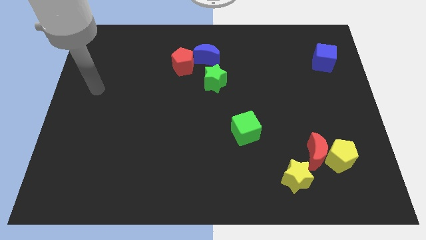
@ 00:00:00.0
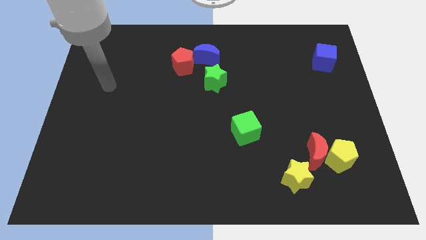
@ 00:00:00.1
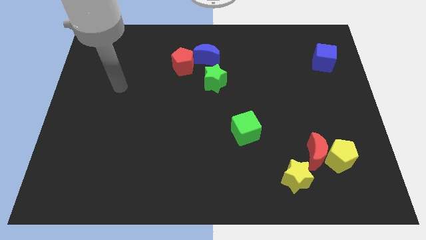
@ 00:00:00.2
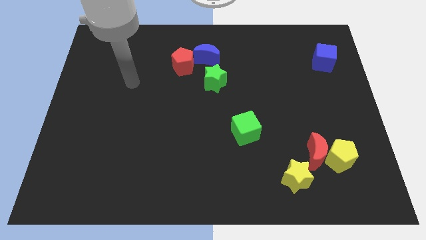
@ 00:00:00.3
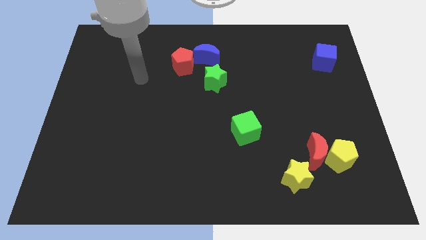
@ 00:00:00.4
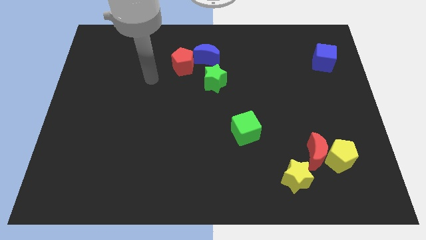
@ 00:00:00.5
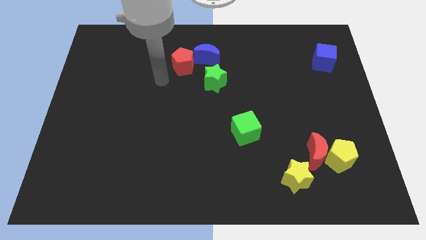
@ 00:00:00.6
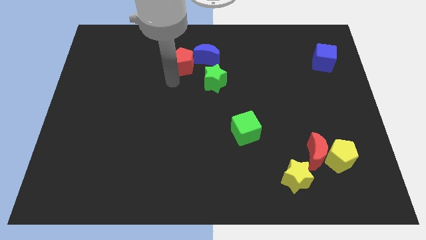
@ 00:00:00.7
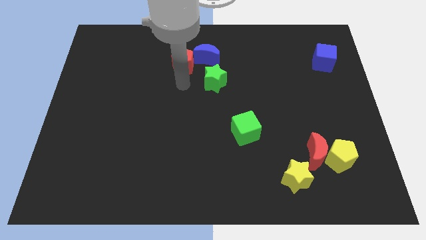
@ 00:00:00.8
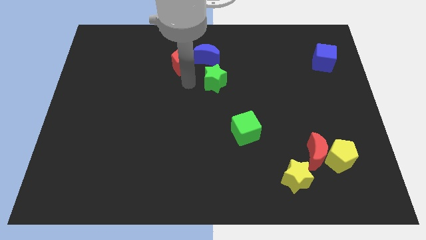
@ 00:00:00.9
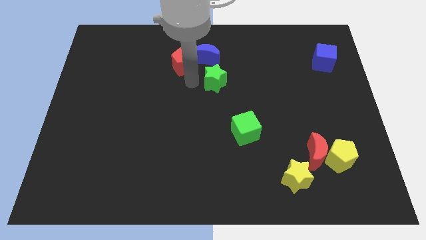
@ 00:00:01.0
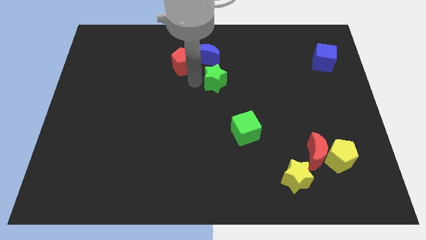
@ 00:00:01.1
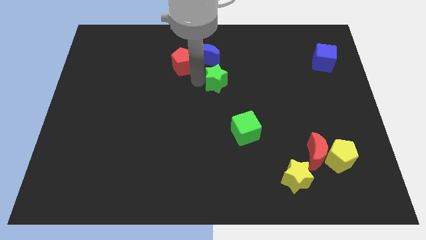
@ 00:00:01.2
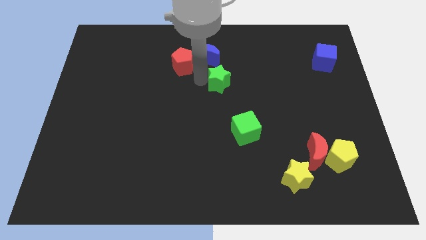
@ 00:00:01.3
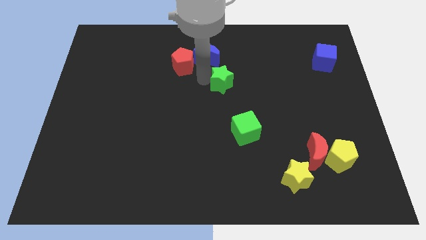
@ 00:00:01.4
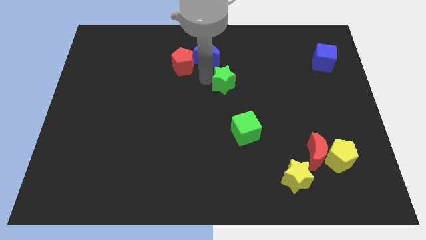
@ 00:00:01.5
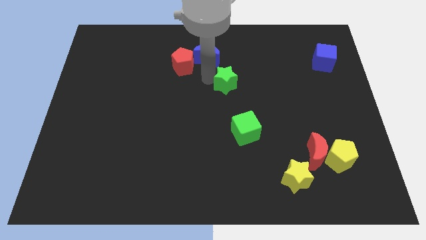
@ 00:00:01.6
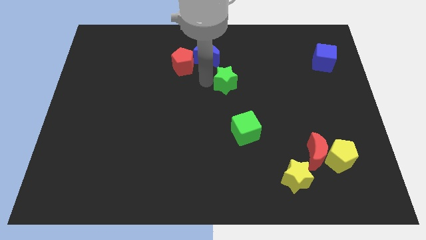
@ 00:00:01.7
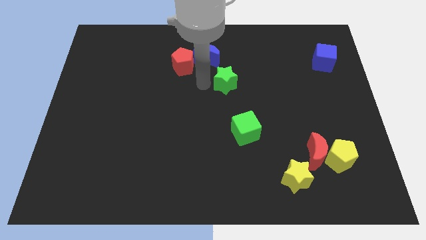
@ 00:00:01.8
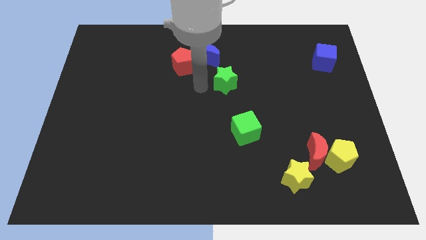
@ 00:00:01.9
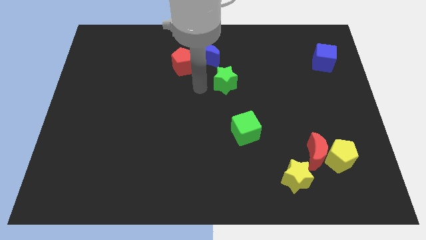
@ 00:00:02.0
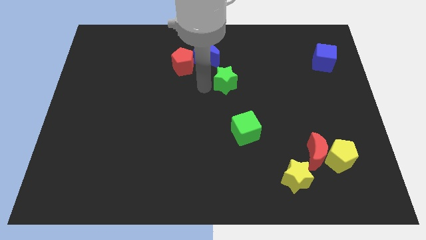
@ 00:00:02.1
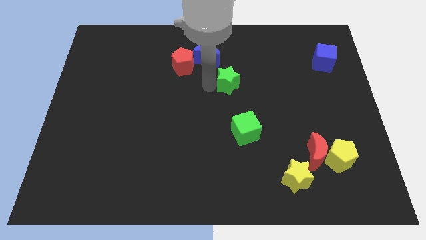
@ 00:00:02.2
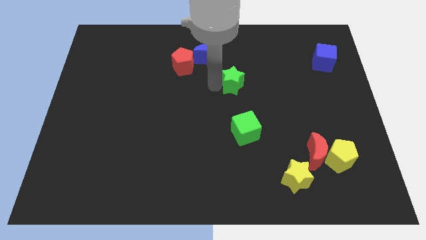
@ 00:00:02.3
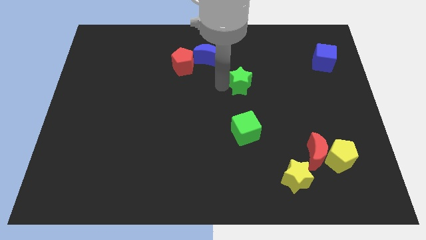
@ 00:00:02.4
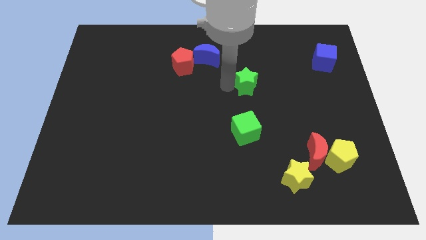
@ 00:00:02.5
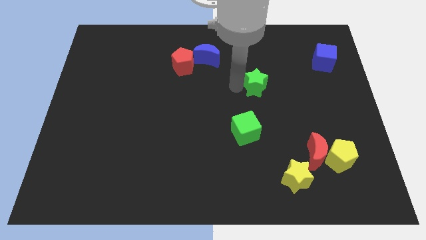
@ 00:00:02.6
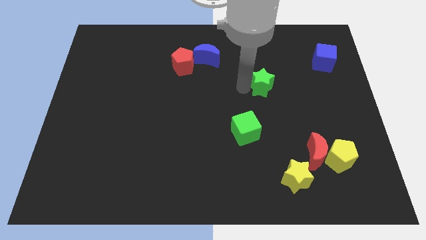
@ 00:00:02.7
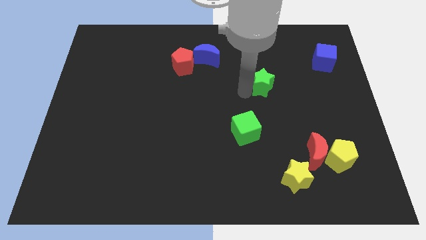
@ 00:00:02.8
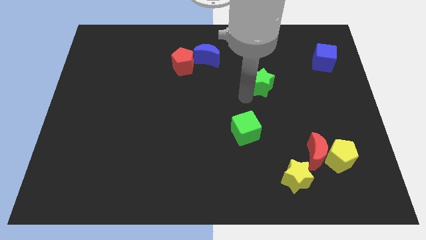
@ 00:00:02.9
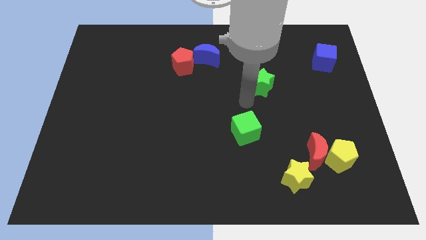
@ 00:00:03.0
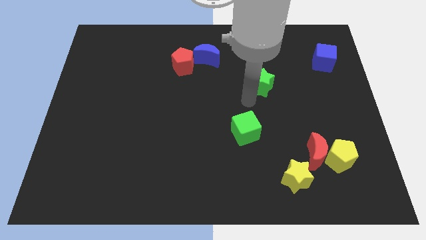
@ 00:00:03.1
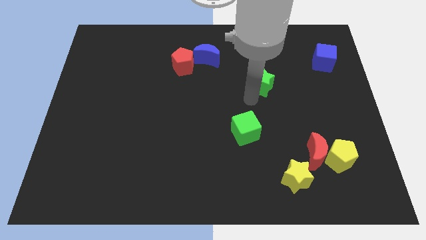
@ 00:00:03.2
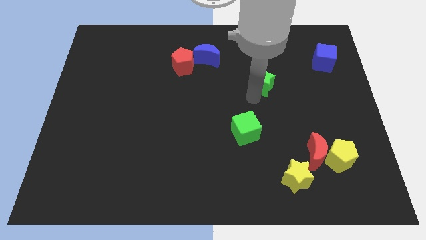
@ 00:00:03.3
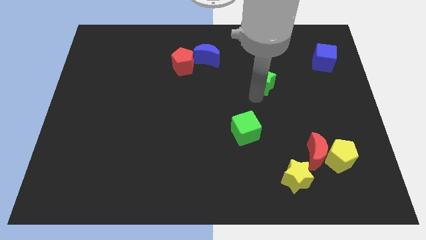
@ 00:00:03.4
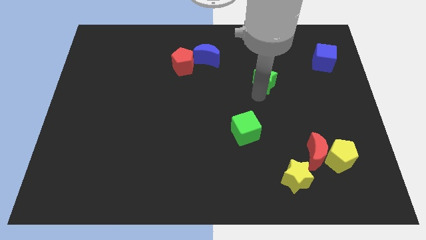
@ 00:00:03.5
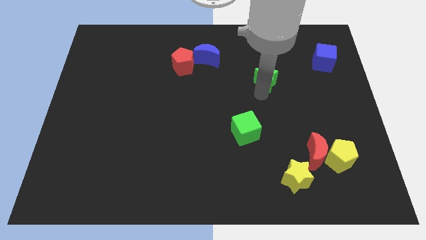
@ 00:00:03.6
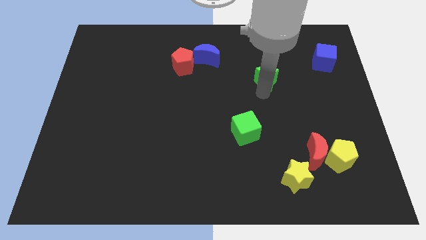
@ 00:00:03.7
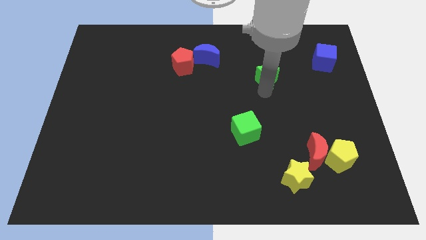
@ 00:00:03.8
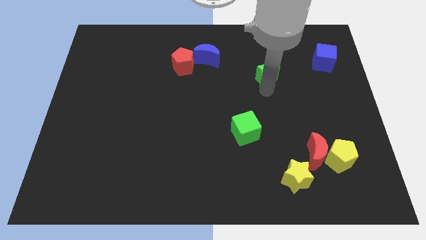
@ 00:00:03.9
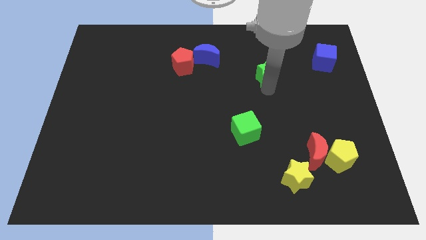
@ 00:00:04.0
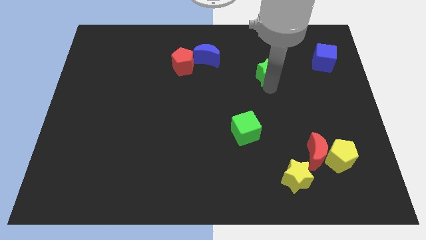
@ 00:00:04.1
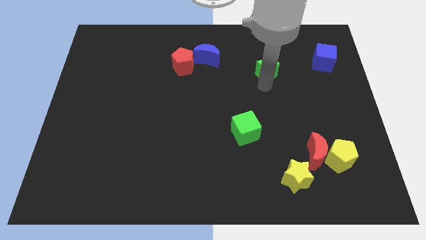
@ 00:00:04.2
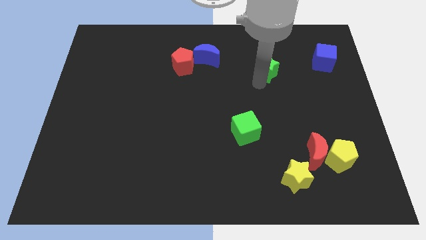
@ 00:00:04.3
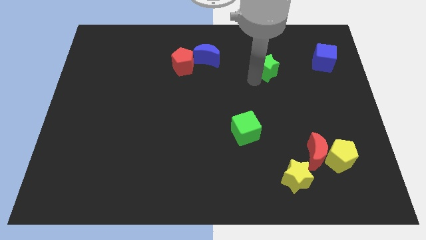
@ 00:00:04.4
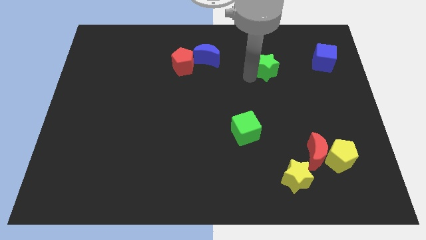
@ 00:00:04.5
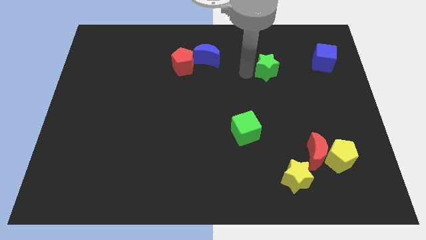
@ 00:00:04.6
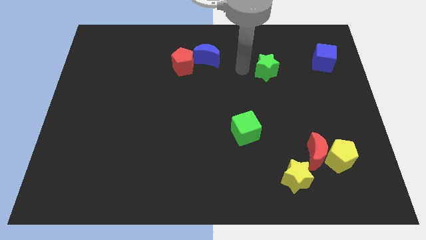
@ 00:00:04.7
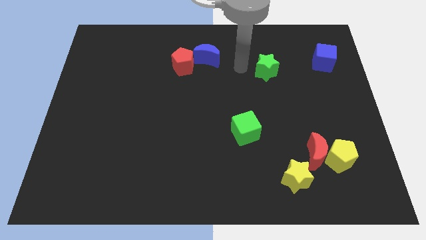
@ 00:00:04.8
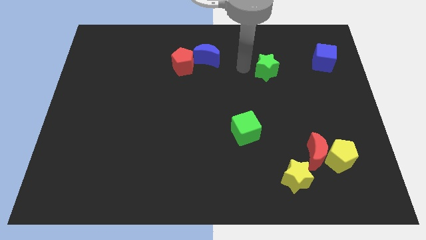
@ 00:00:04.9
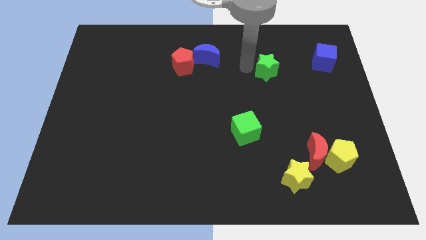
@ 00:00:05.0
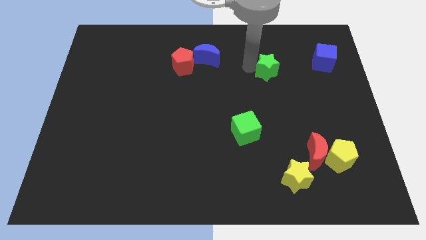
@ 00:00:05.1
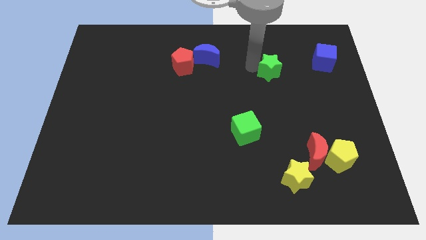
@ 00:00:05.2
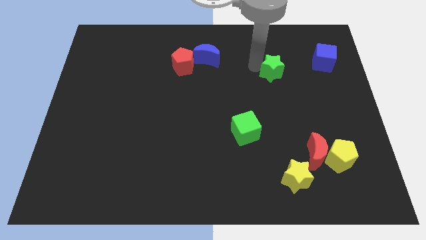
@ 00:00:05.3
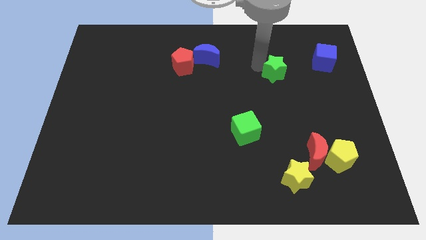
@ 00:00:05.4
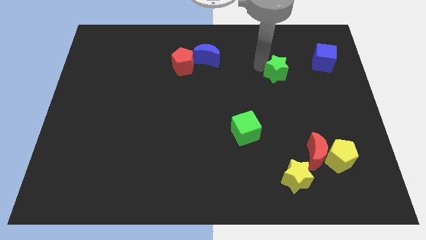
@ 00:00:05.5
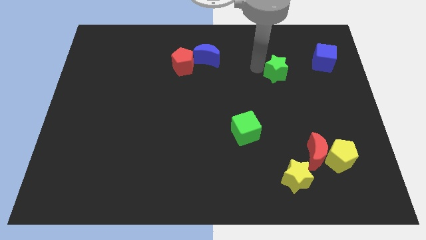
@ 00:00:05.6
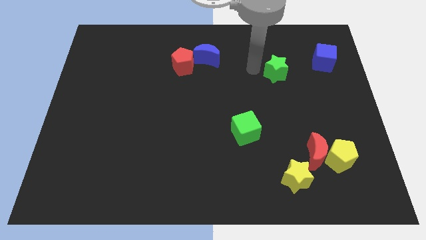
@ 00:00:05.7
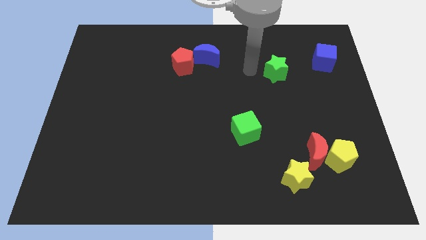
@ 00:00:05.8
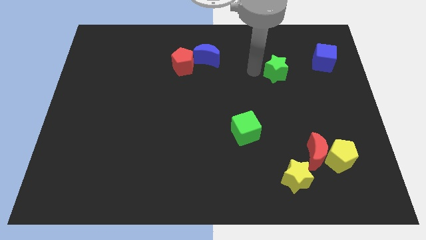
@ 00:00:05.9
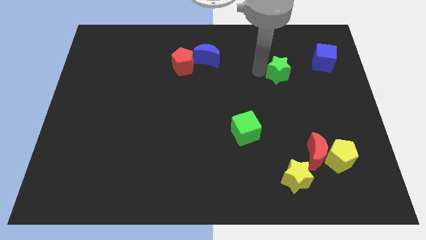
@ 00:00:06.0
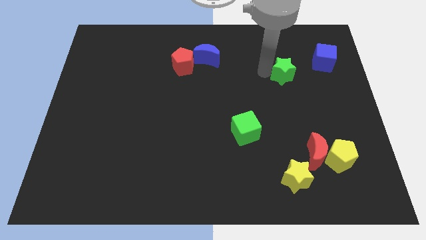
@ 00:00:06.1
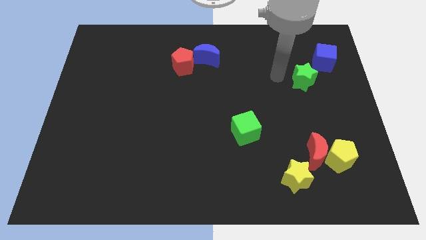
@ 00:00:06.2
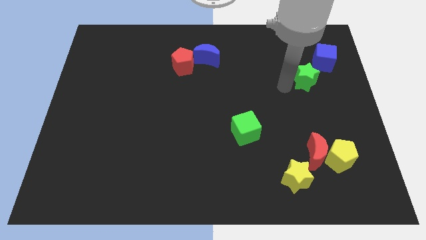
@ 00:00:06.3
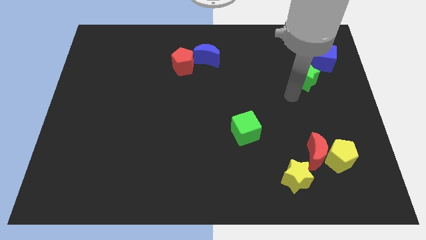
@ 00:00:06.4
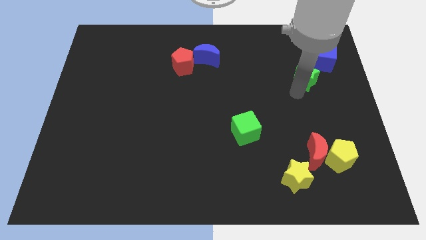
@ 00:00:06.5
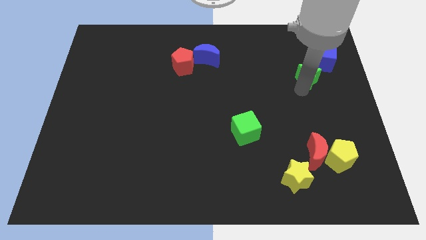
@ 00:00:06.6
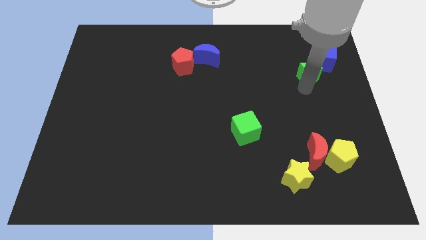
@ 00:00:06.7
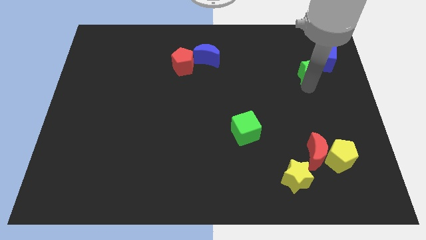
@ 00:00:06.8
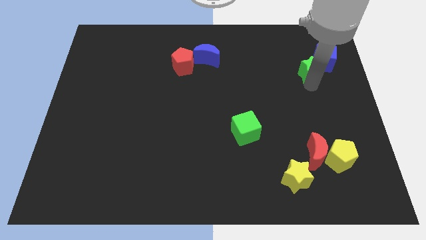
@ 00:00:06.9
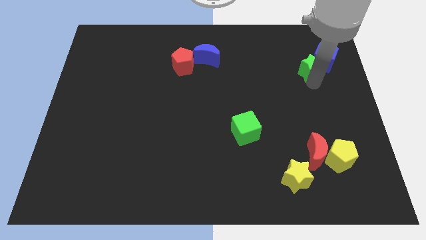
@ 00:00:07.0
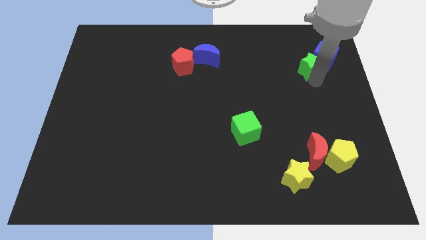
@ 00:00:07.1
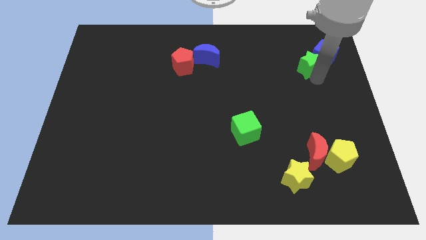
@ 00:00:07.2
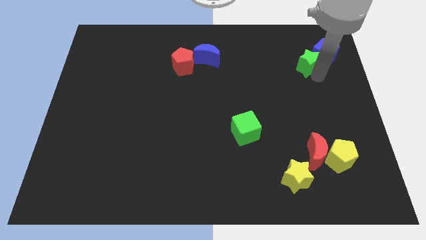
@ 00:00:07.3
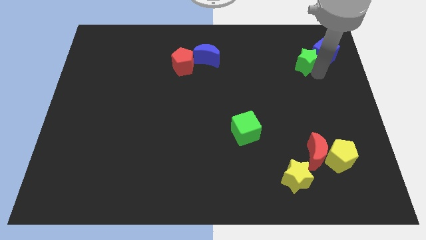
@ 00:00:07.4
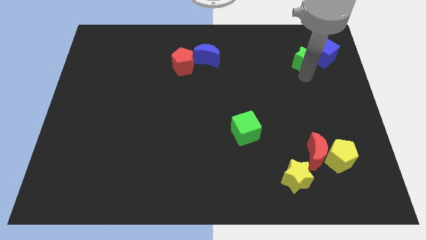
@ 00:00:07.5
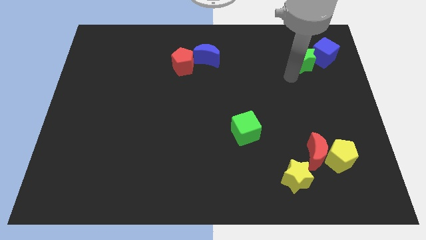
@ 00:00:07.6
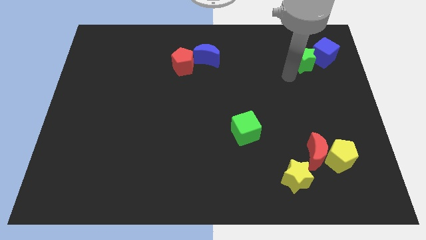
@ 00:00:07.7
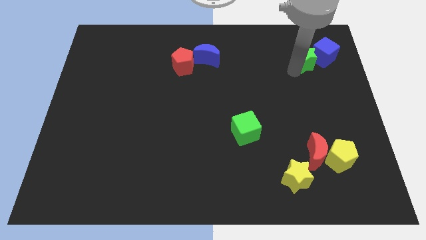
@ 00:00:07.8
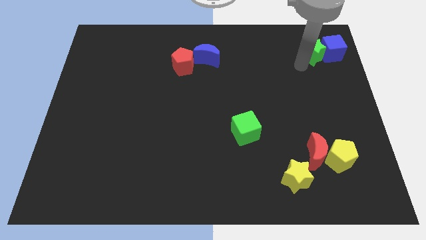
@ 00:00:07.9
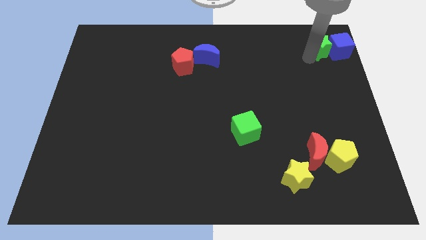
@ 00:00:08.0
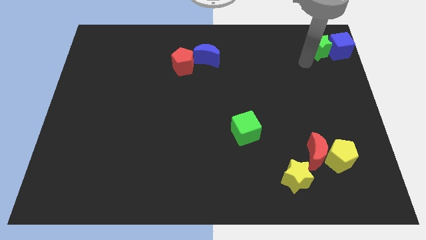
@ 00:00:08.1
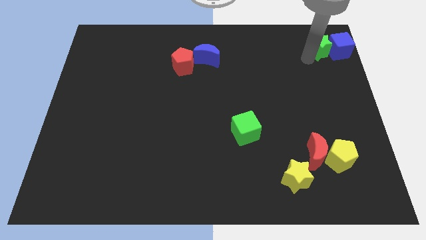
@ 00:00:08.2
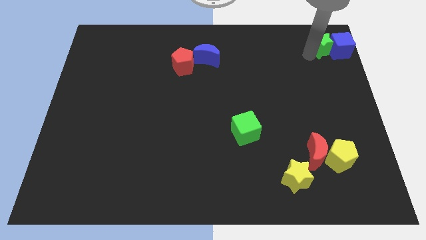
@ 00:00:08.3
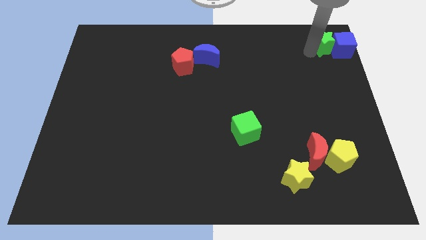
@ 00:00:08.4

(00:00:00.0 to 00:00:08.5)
push the green star to the upper right corner
